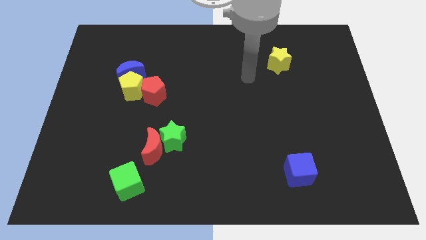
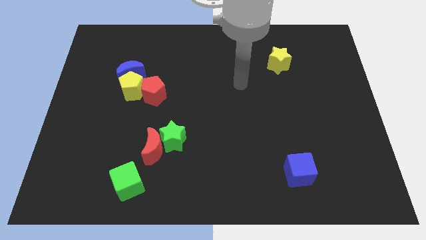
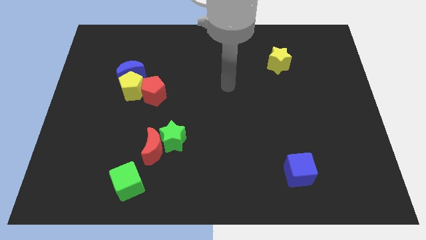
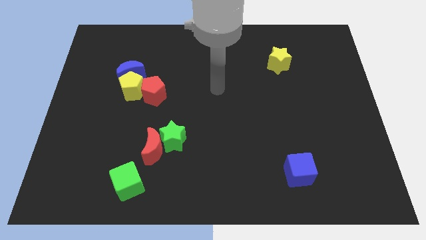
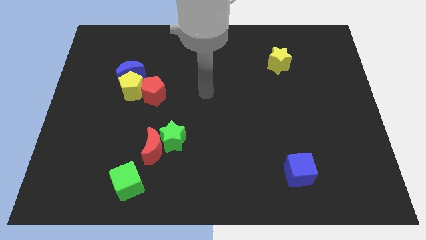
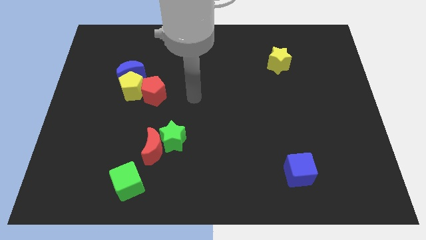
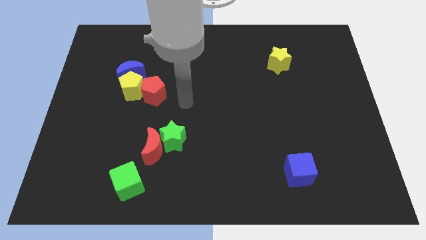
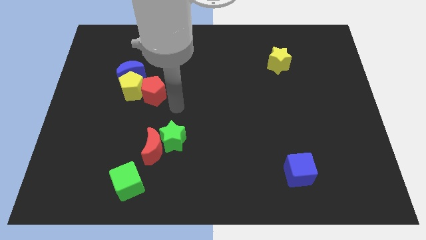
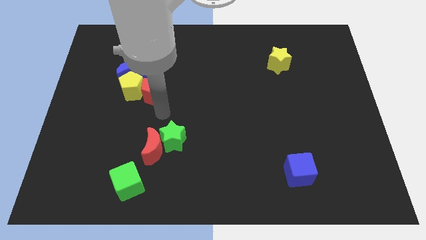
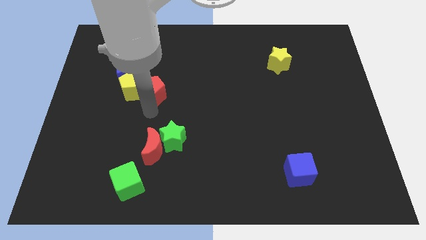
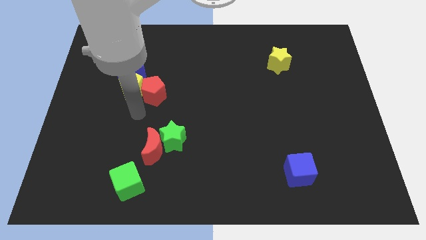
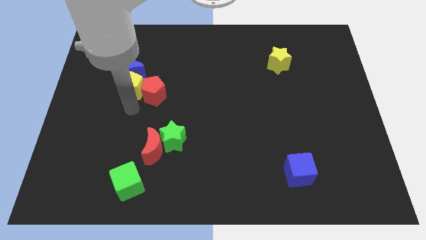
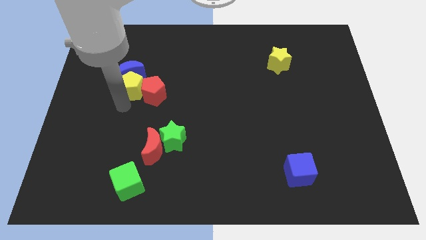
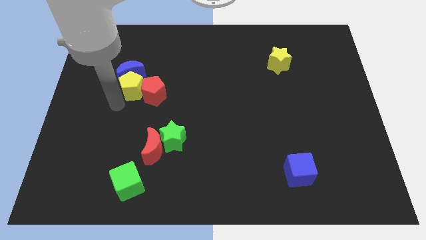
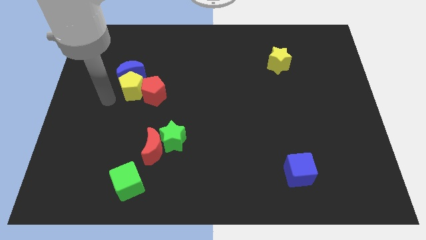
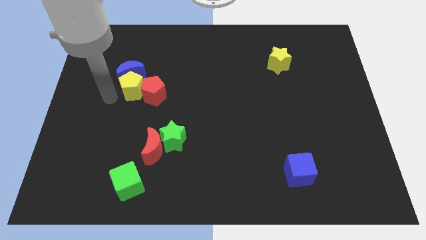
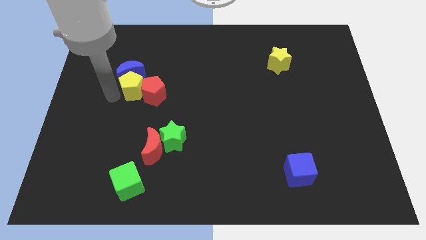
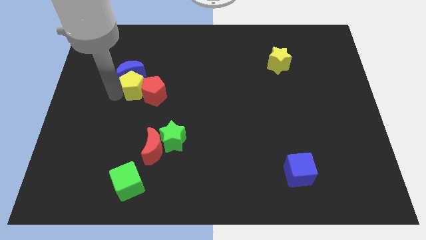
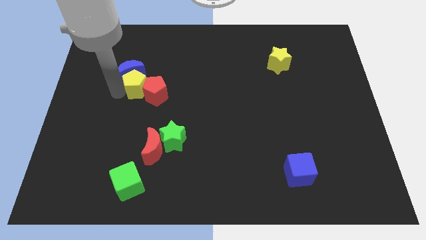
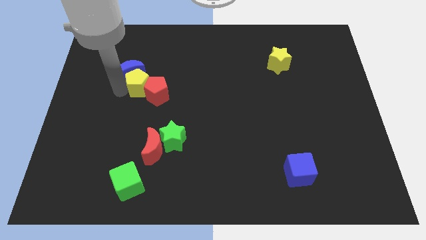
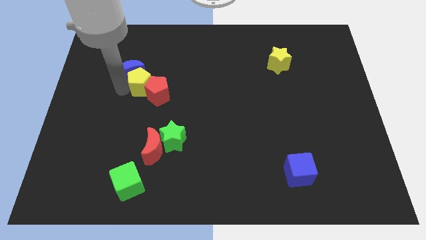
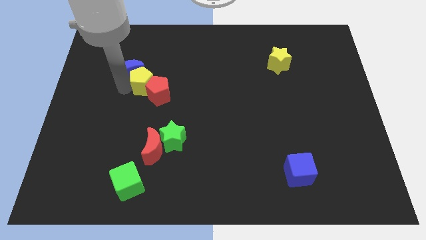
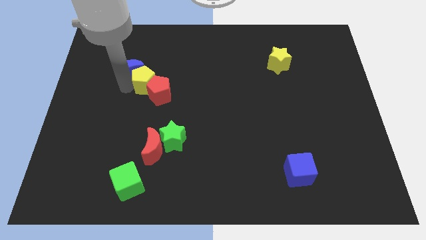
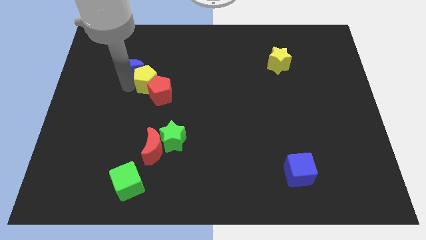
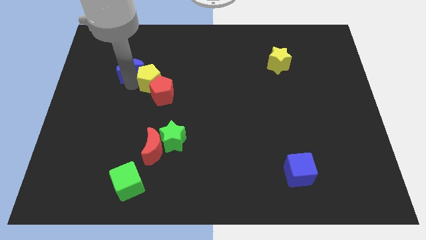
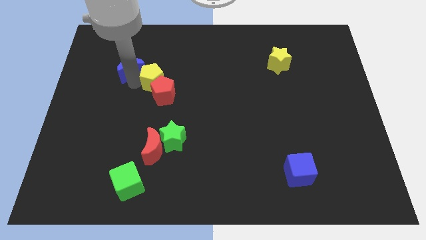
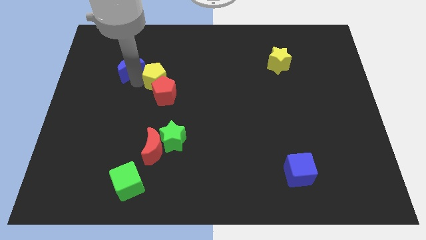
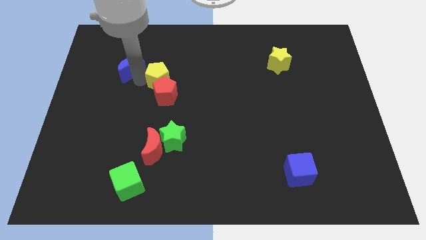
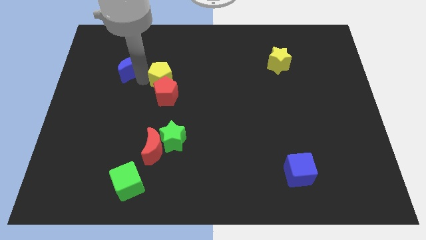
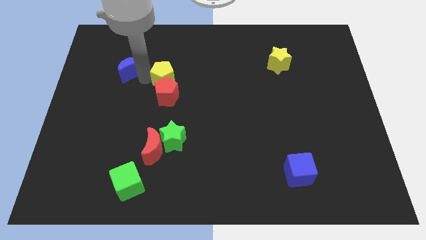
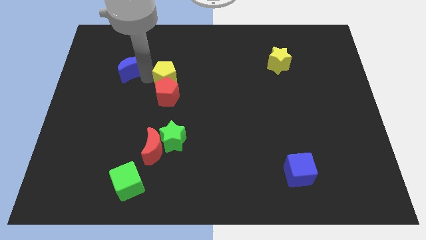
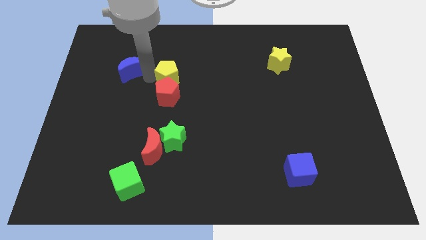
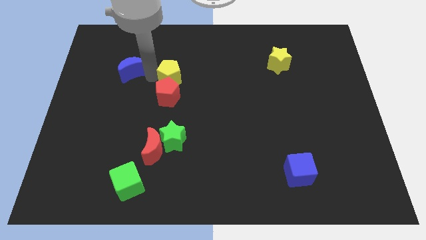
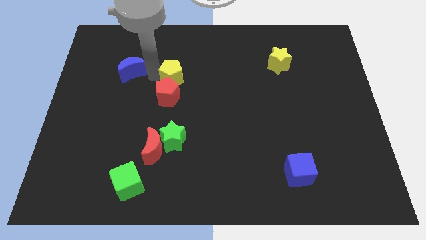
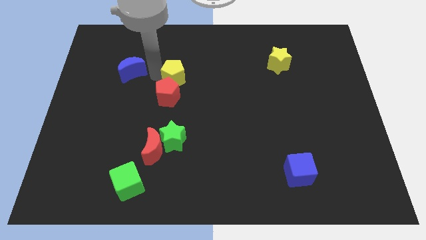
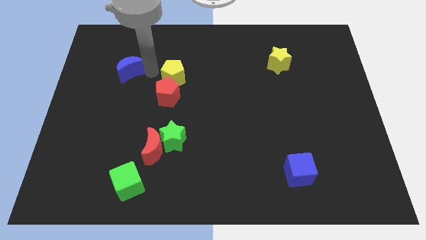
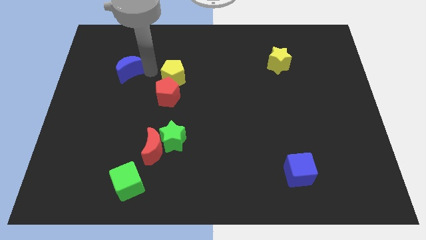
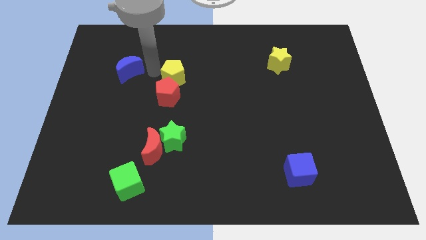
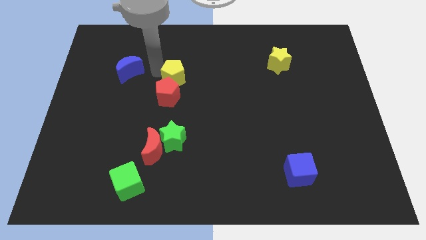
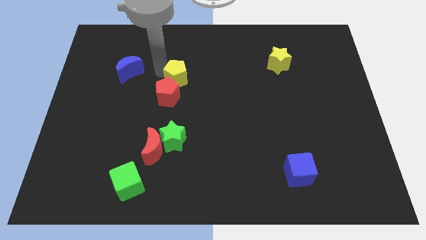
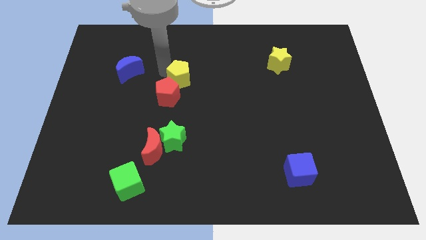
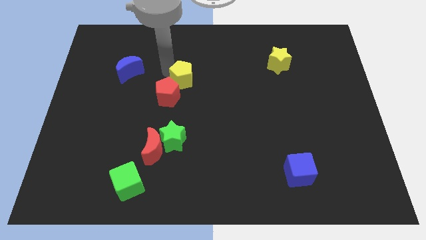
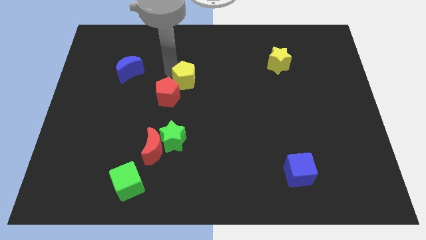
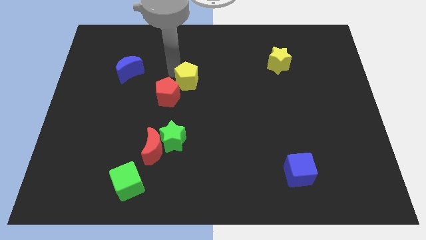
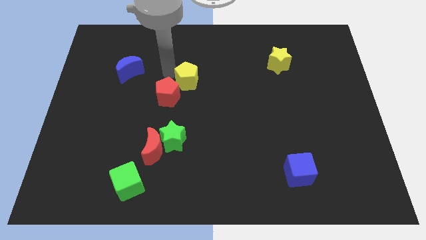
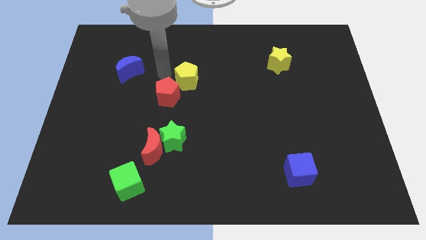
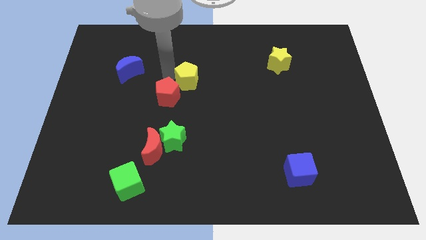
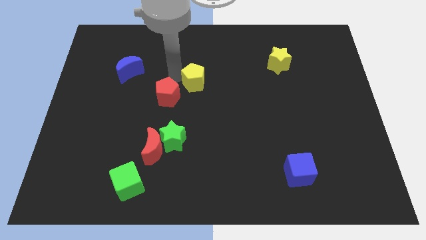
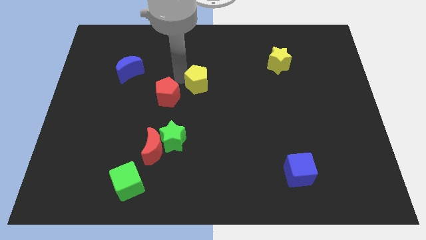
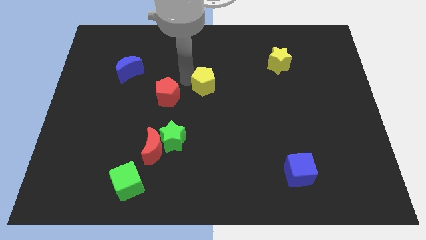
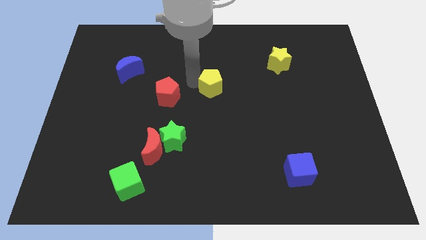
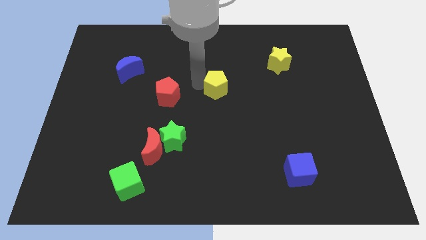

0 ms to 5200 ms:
push the yellow pentagon to the right

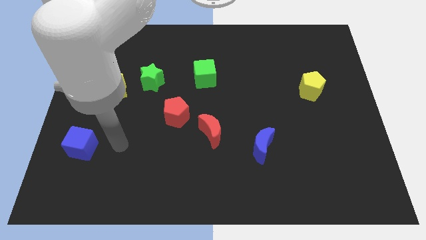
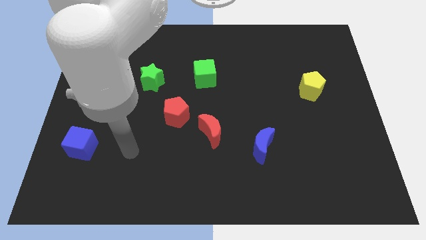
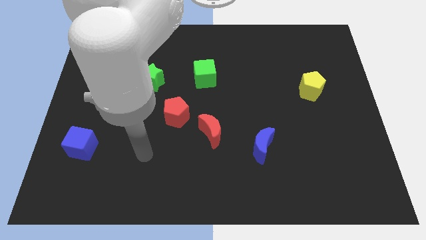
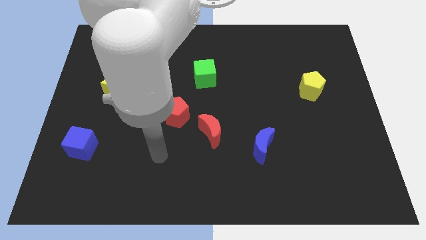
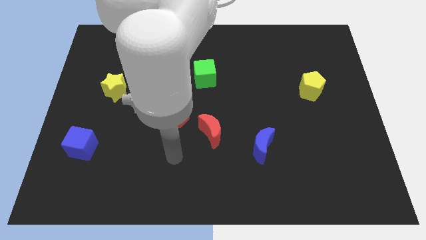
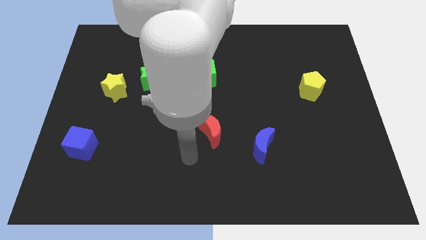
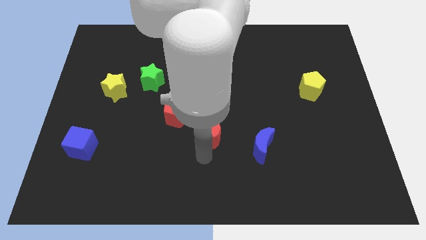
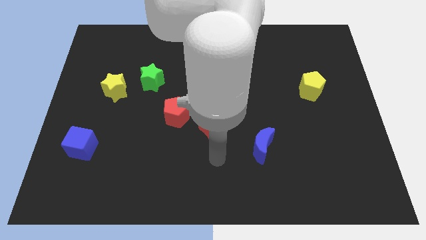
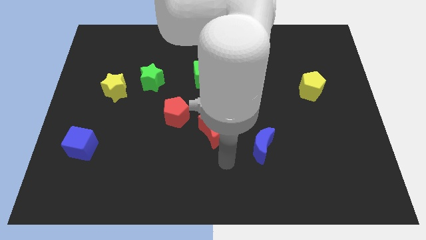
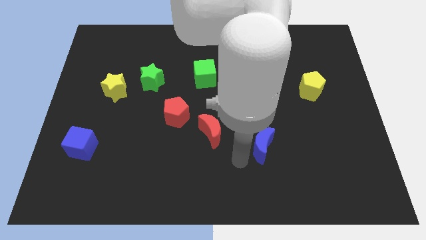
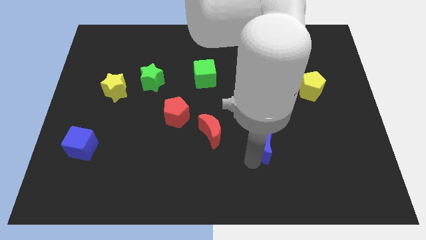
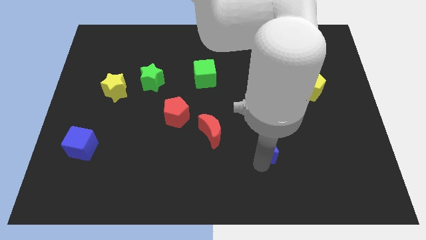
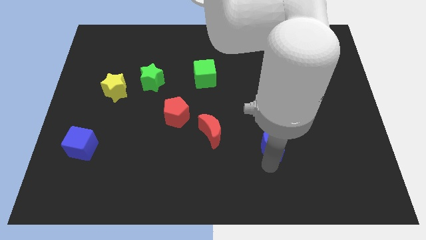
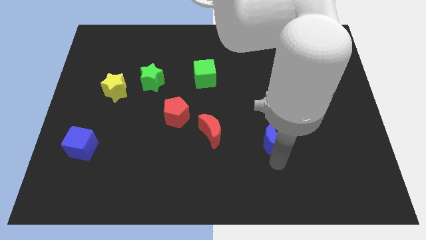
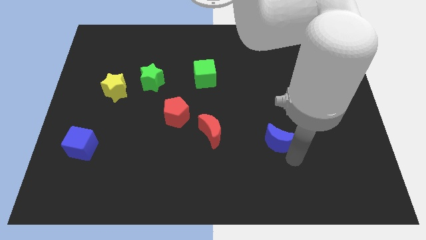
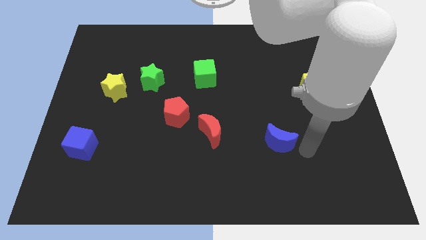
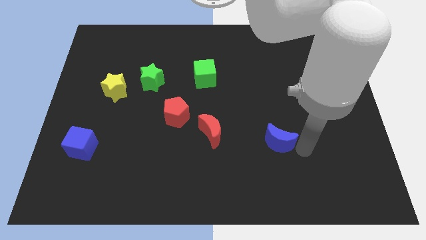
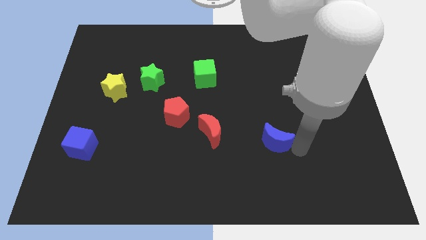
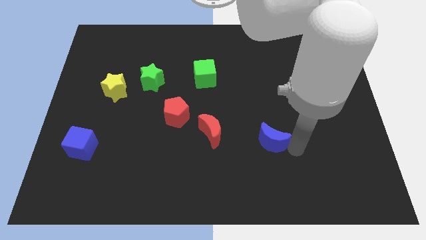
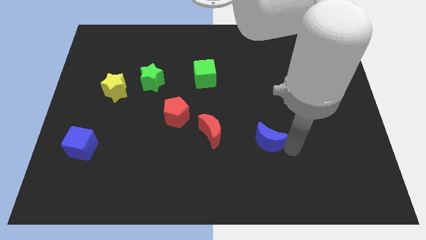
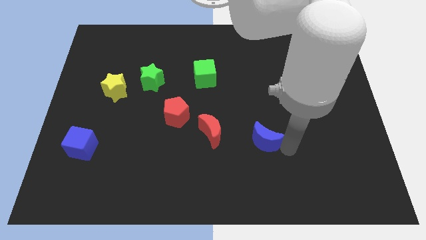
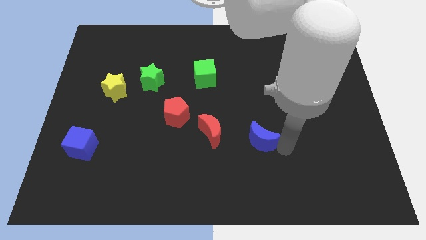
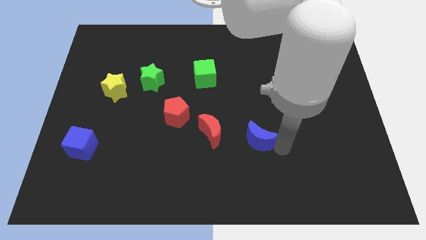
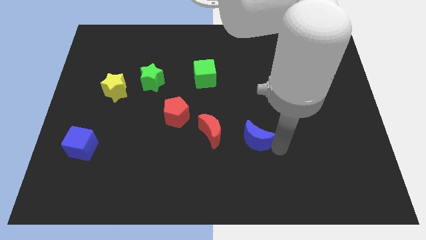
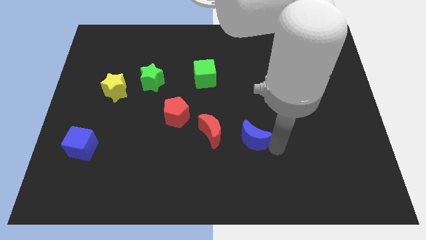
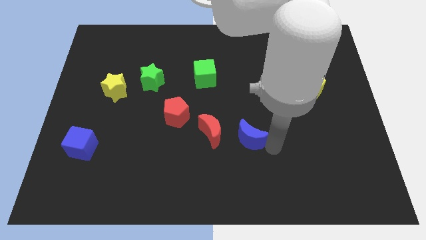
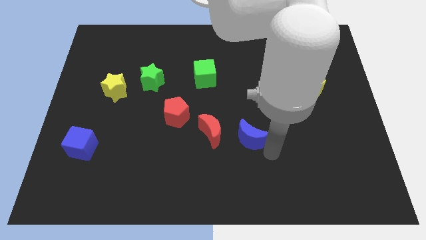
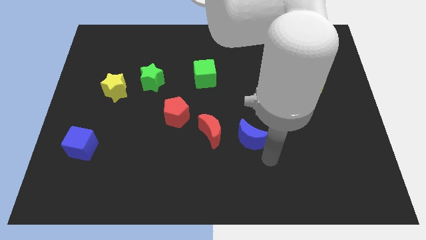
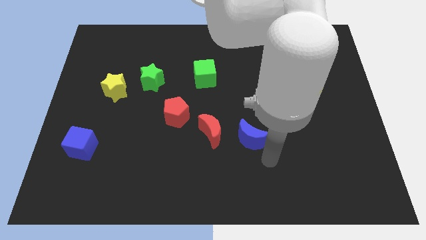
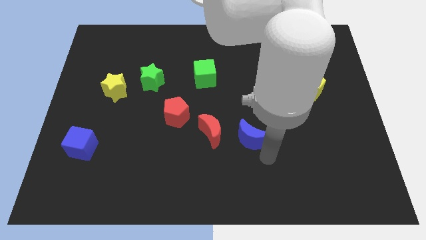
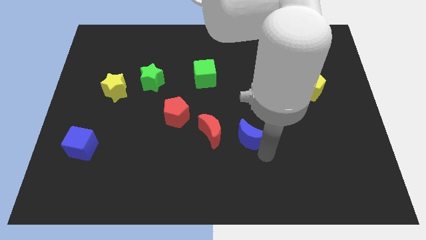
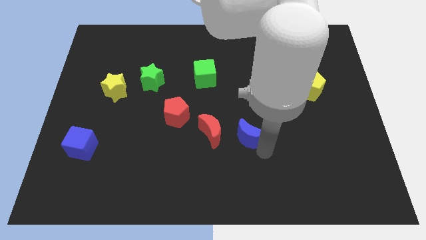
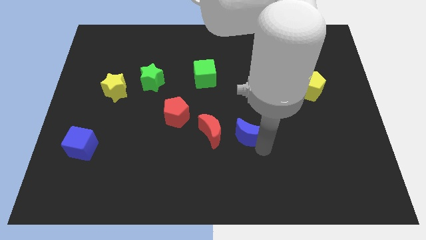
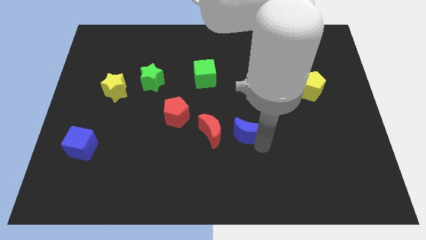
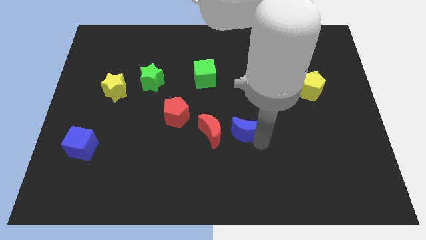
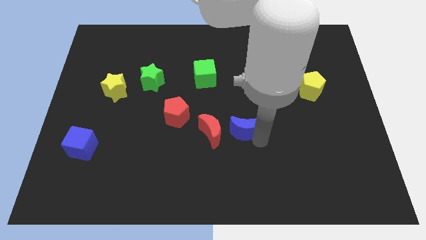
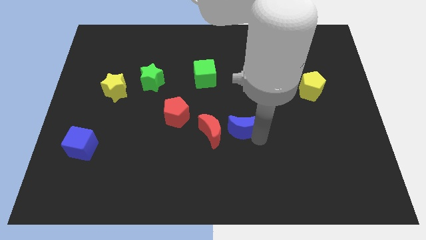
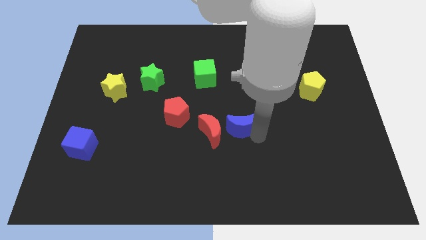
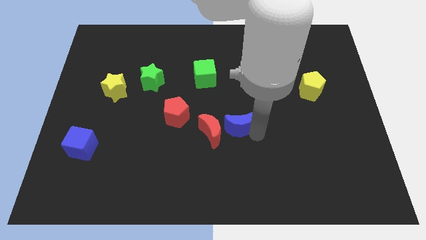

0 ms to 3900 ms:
slightly move the blue moon diagonally upwards and left
